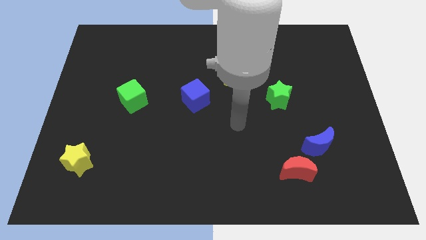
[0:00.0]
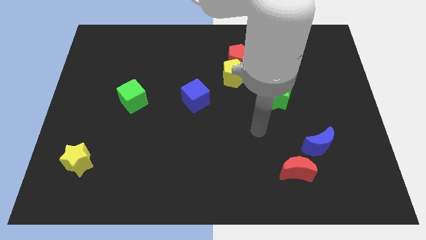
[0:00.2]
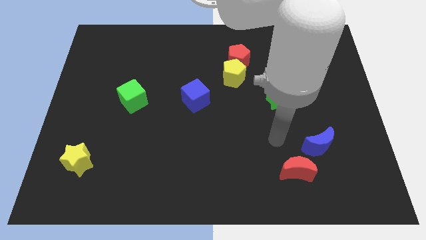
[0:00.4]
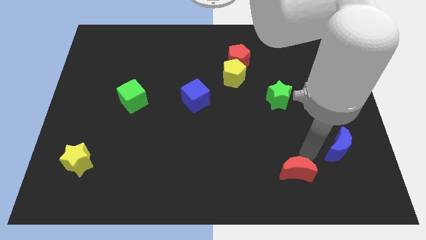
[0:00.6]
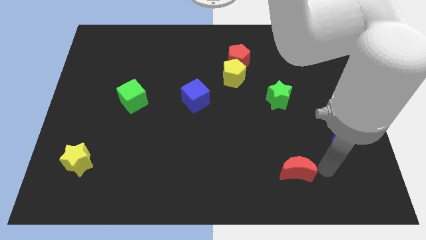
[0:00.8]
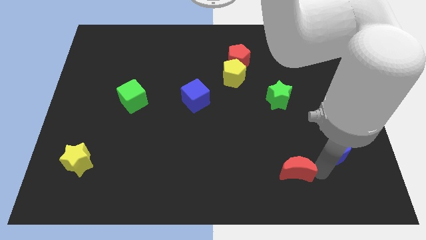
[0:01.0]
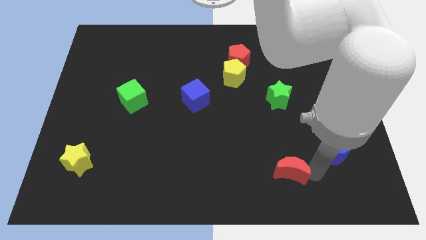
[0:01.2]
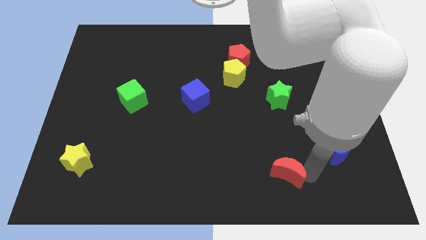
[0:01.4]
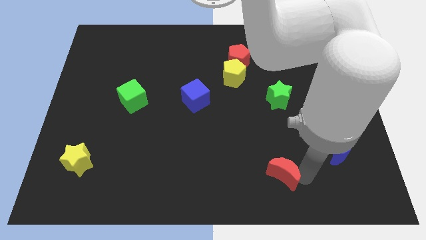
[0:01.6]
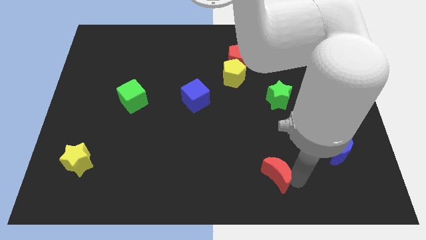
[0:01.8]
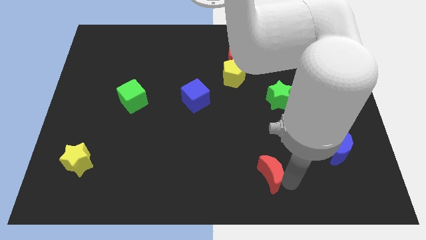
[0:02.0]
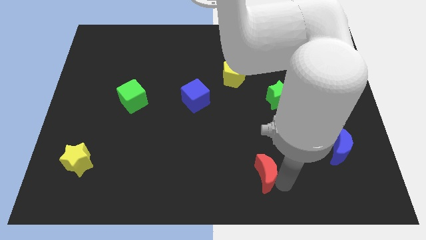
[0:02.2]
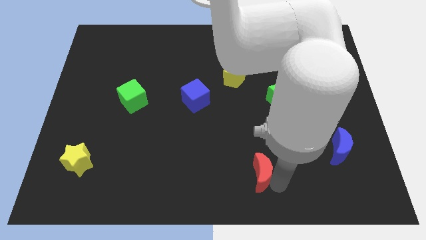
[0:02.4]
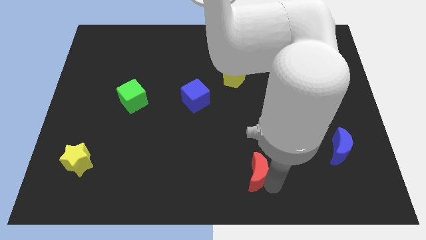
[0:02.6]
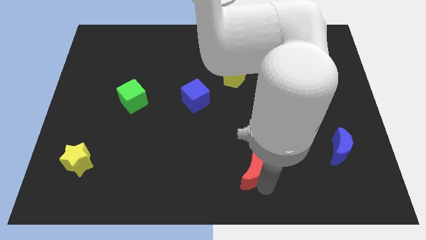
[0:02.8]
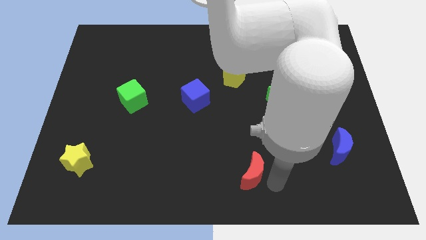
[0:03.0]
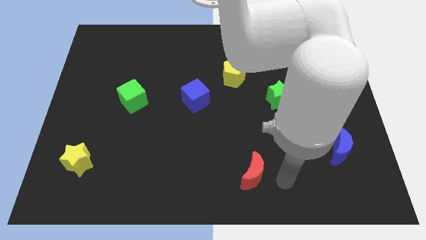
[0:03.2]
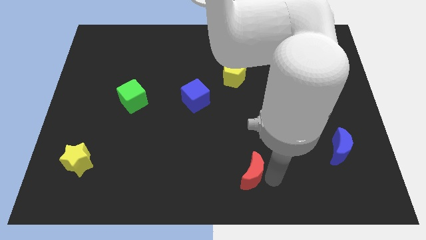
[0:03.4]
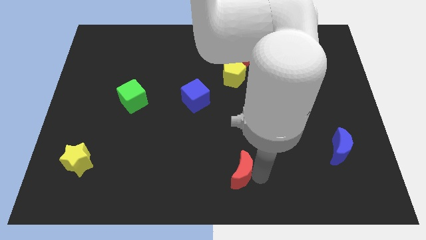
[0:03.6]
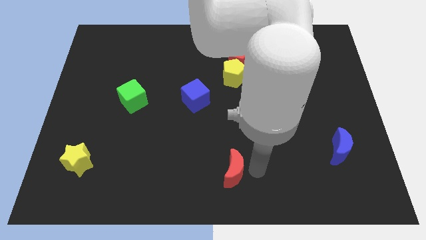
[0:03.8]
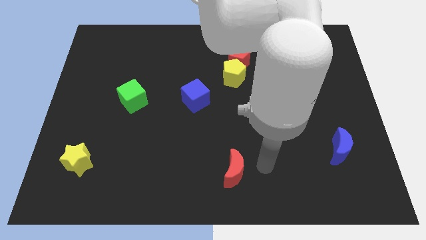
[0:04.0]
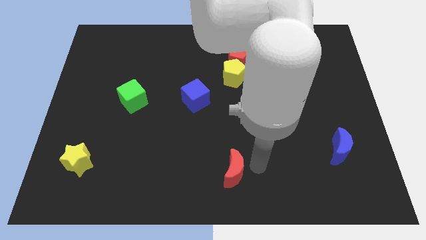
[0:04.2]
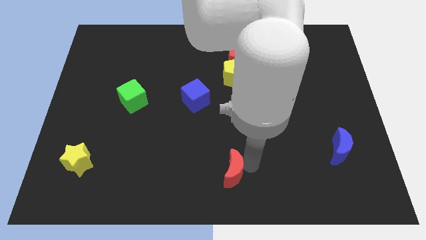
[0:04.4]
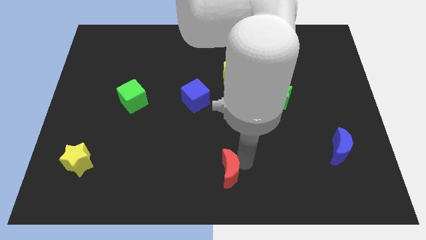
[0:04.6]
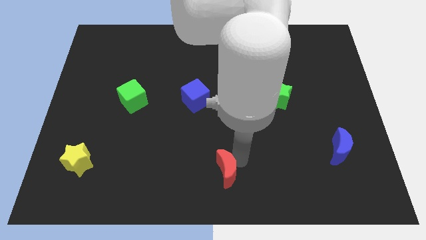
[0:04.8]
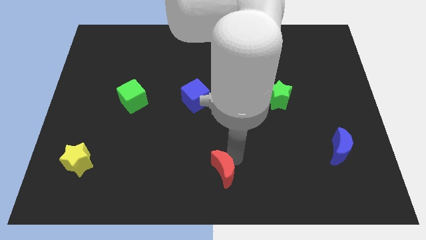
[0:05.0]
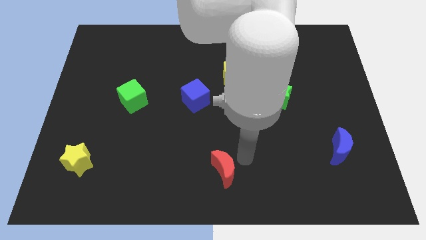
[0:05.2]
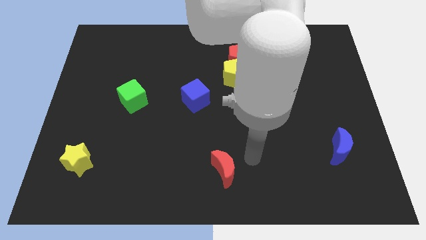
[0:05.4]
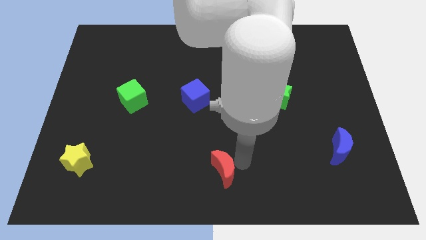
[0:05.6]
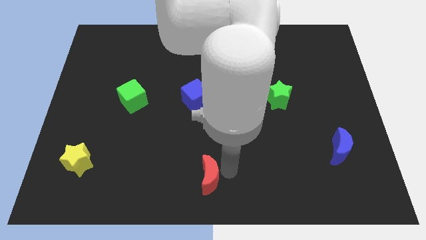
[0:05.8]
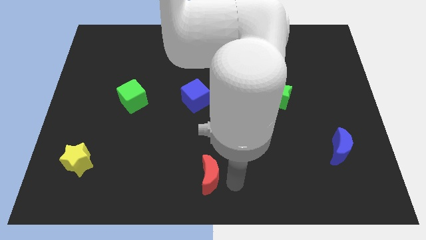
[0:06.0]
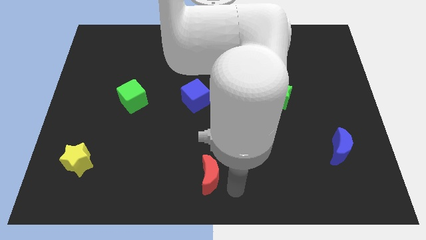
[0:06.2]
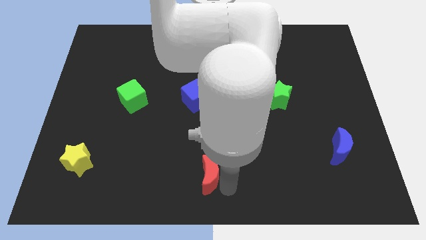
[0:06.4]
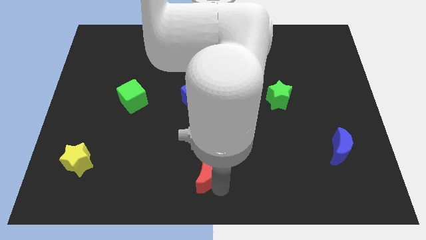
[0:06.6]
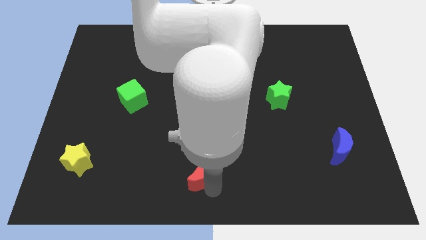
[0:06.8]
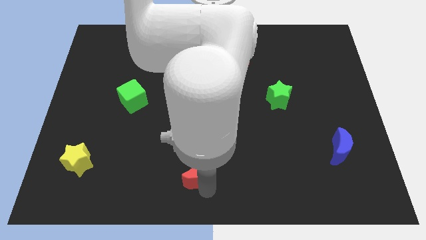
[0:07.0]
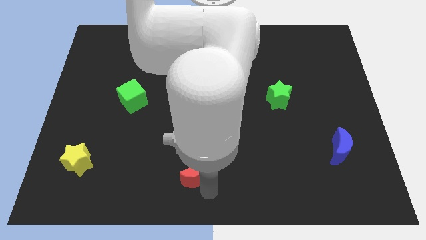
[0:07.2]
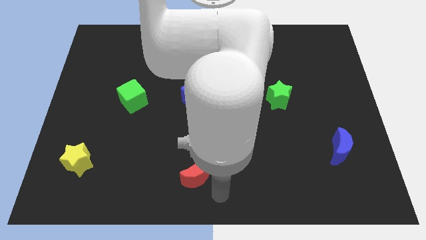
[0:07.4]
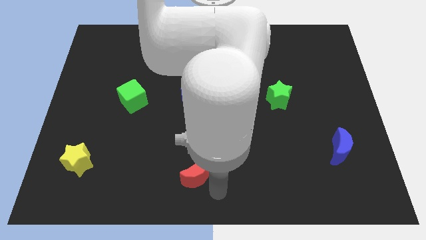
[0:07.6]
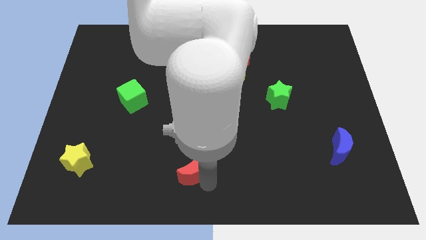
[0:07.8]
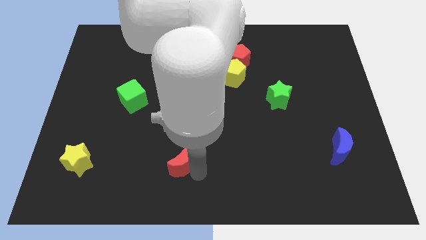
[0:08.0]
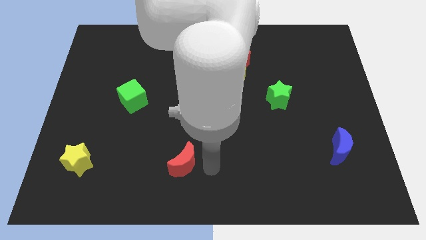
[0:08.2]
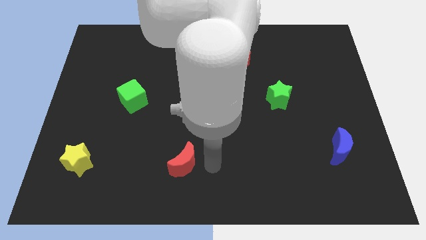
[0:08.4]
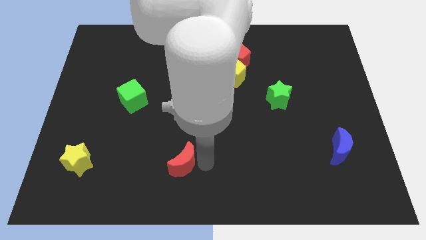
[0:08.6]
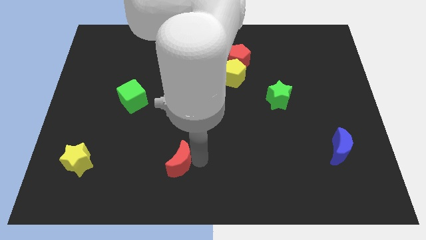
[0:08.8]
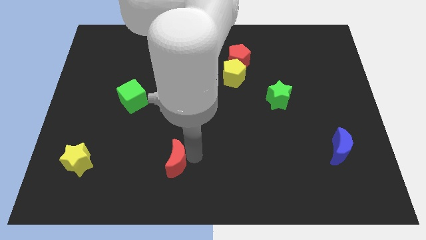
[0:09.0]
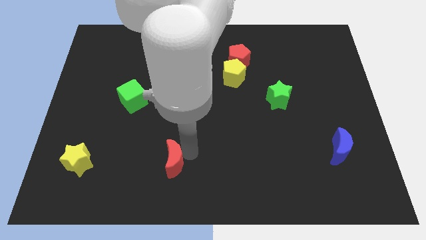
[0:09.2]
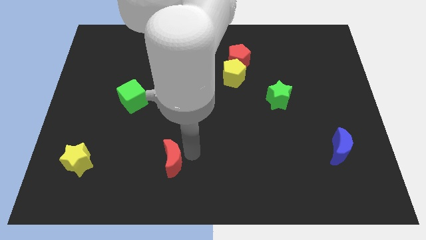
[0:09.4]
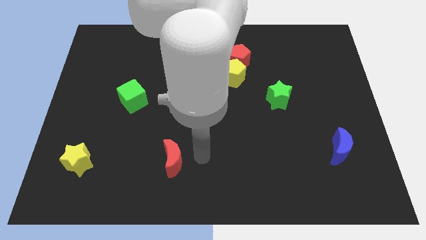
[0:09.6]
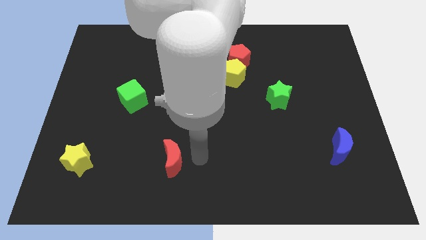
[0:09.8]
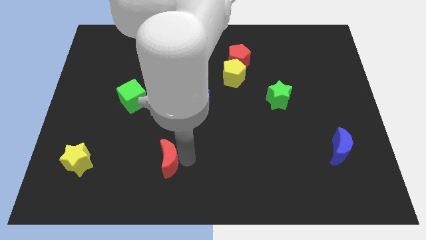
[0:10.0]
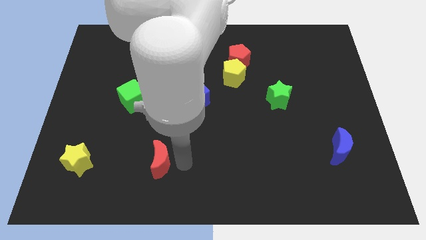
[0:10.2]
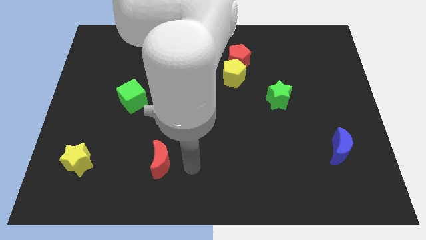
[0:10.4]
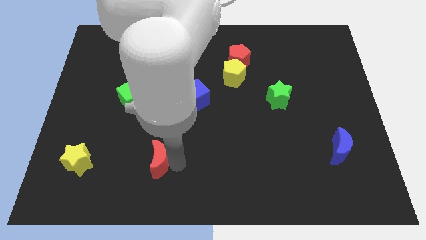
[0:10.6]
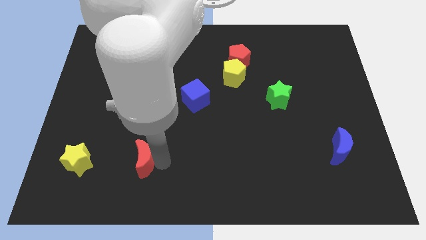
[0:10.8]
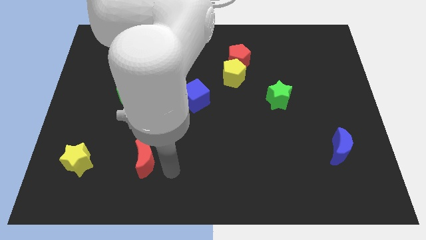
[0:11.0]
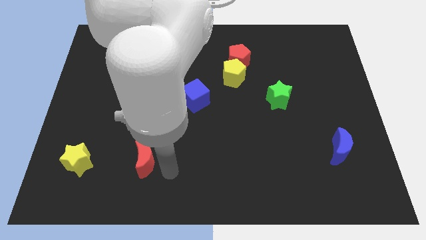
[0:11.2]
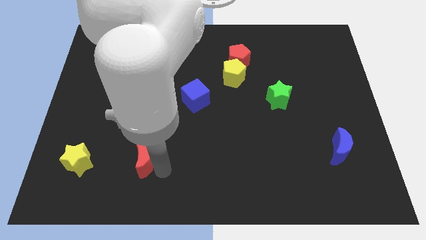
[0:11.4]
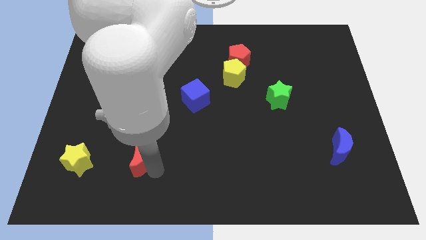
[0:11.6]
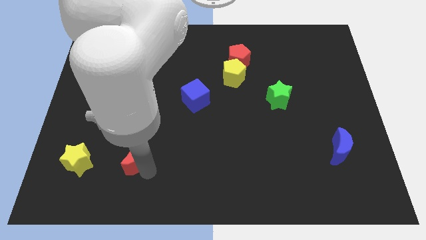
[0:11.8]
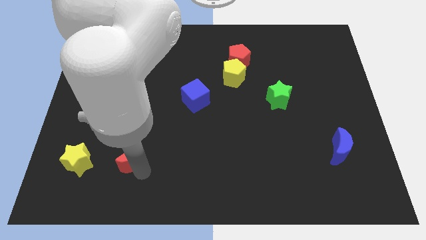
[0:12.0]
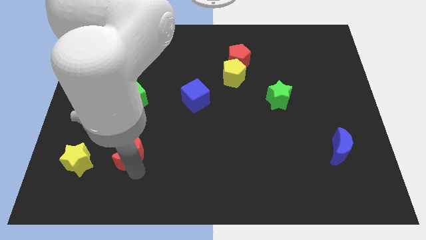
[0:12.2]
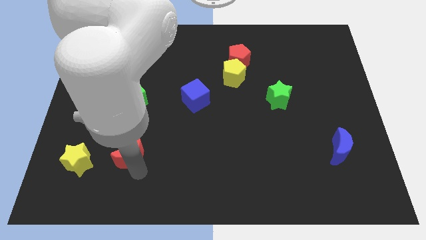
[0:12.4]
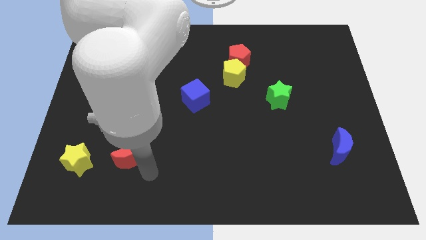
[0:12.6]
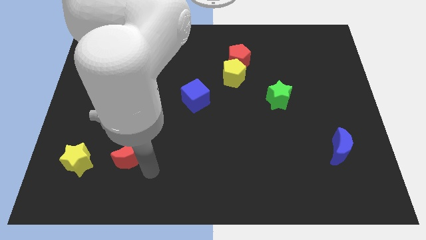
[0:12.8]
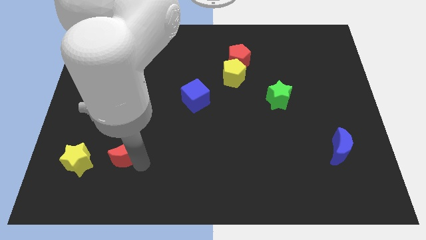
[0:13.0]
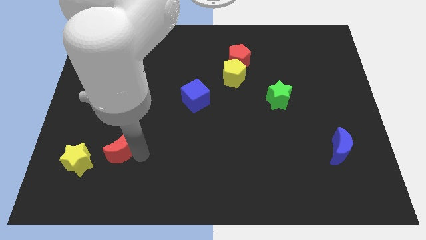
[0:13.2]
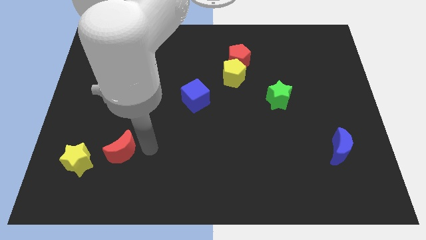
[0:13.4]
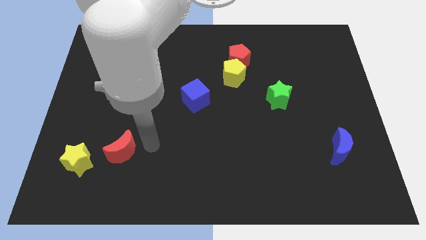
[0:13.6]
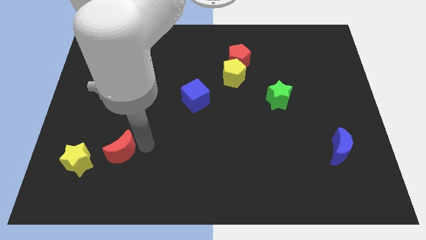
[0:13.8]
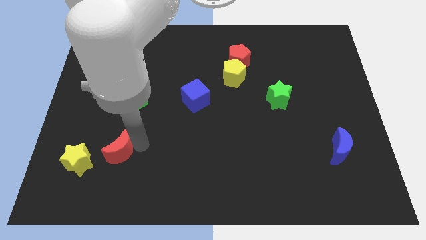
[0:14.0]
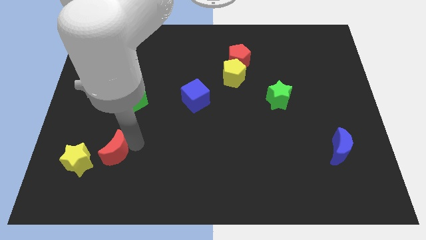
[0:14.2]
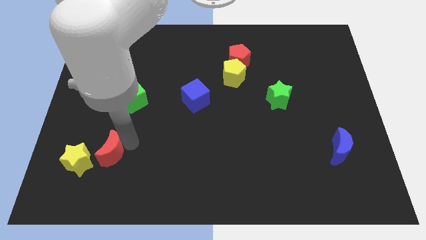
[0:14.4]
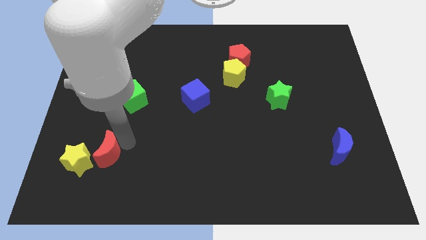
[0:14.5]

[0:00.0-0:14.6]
move the red moon close to the yellow star
